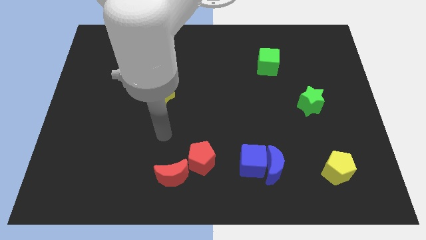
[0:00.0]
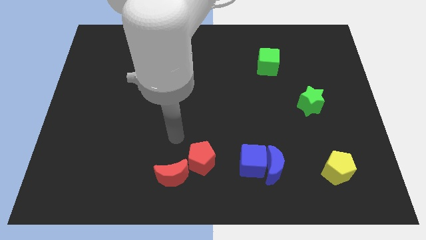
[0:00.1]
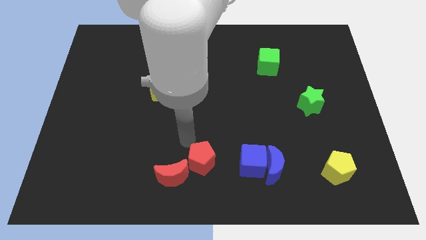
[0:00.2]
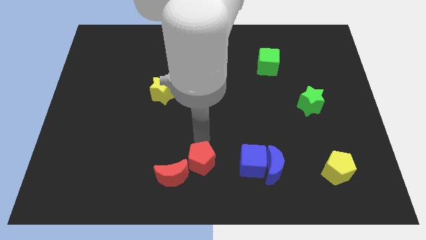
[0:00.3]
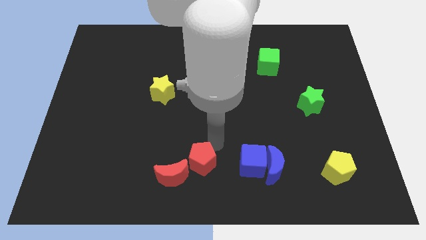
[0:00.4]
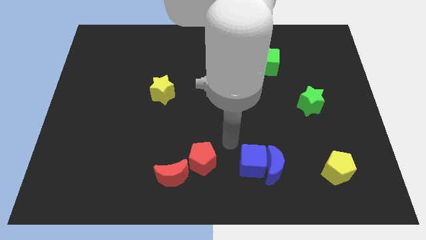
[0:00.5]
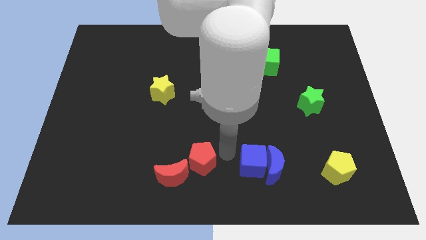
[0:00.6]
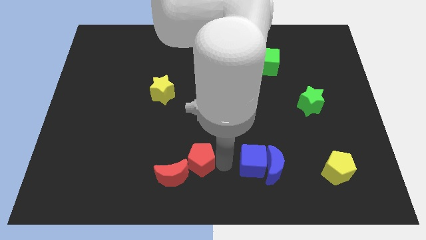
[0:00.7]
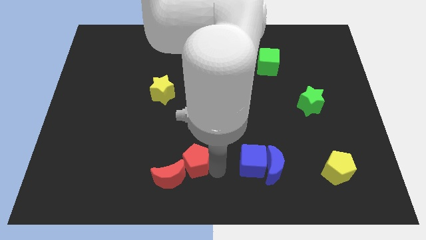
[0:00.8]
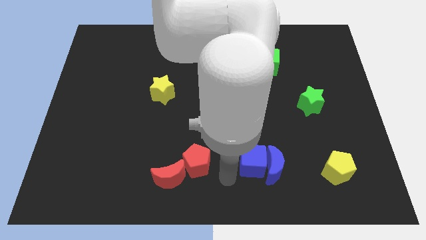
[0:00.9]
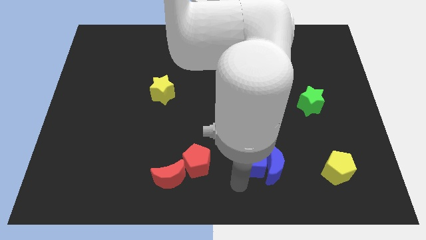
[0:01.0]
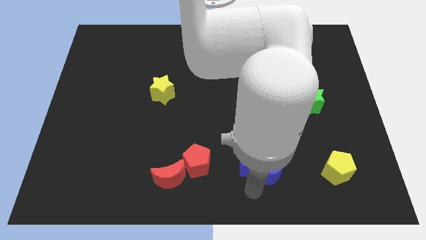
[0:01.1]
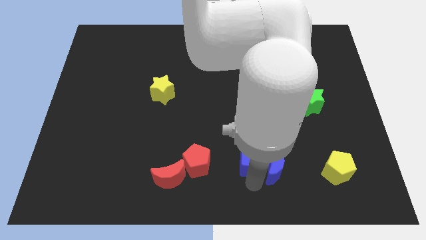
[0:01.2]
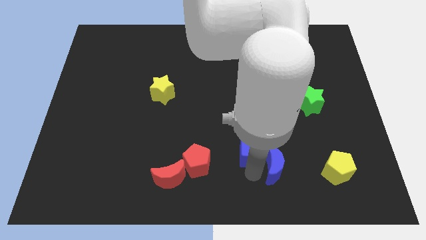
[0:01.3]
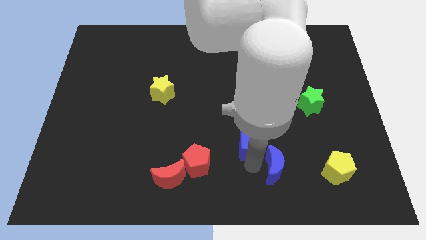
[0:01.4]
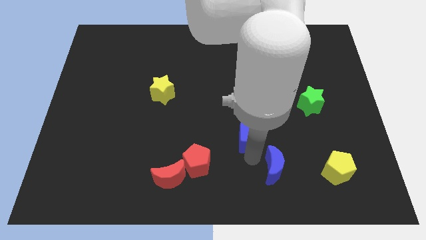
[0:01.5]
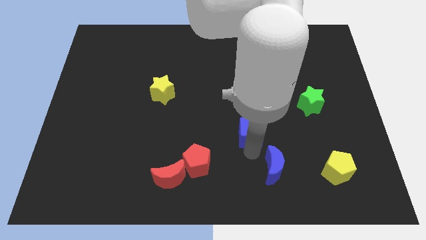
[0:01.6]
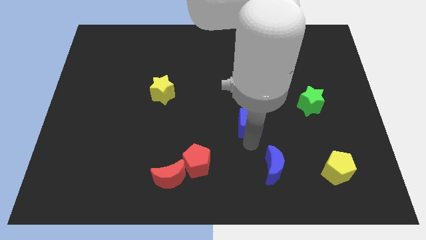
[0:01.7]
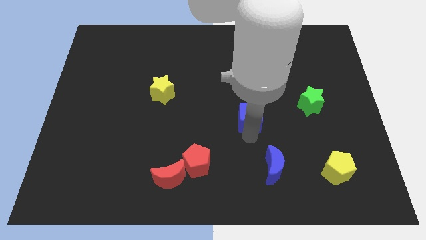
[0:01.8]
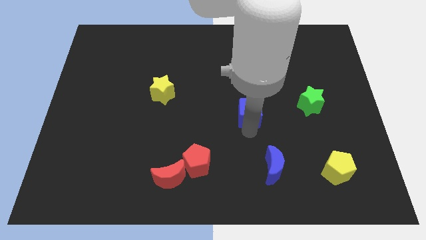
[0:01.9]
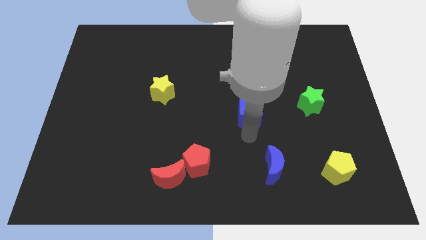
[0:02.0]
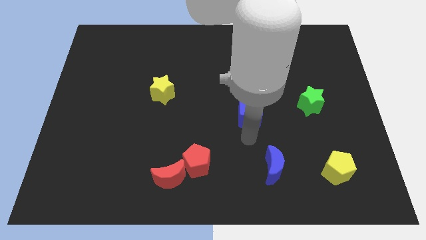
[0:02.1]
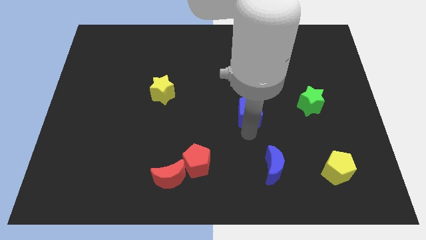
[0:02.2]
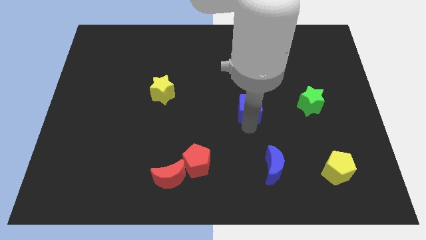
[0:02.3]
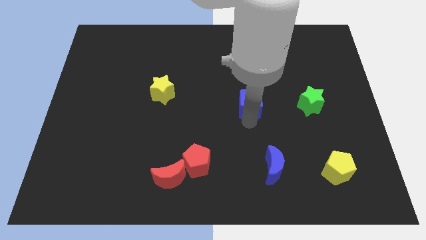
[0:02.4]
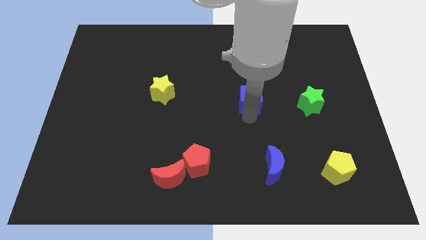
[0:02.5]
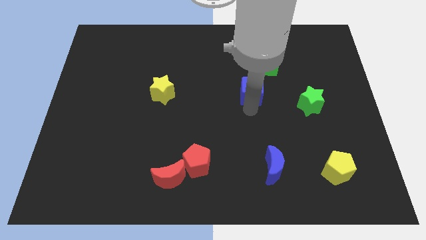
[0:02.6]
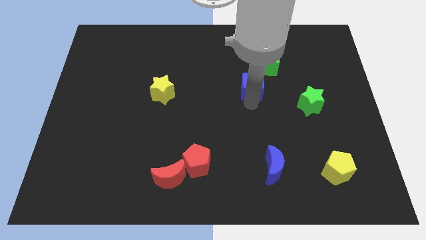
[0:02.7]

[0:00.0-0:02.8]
move the blue cube up

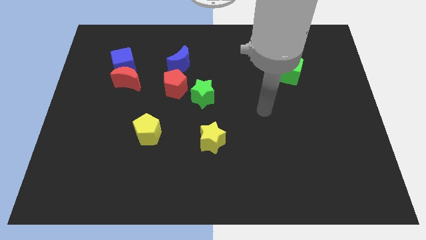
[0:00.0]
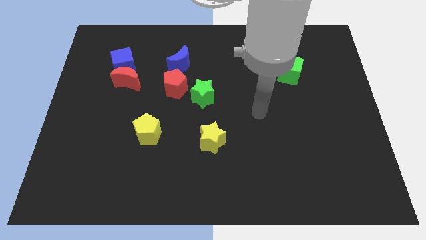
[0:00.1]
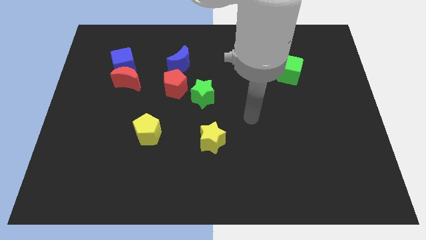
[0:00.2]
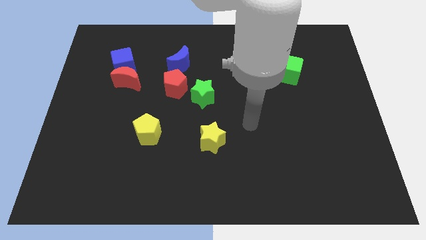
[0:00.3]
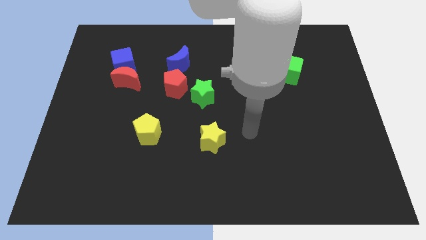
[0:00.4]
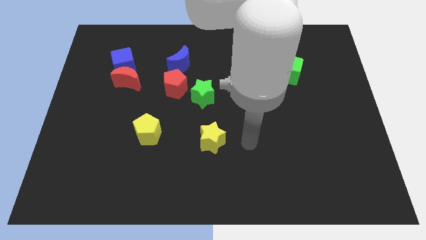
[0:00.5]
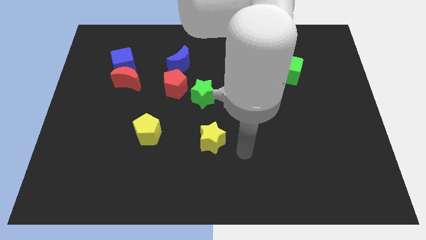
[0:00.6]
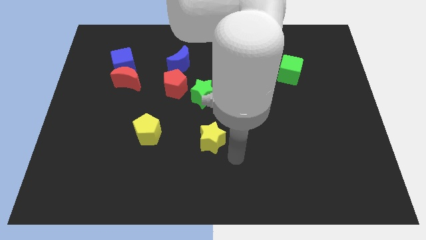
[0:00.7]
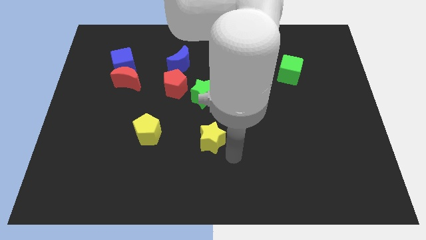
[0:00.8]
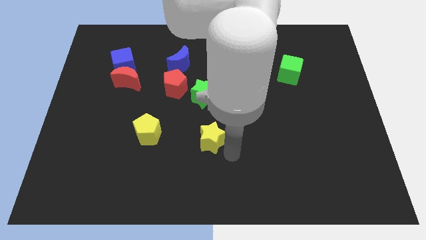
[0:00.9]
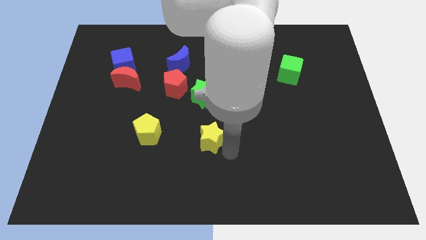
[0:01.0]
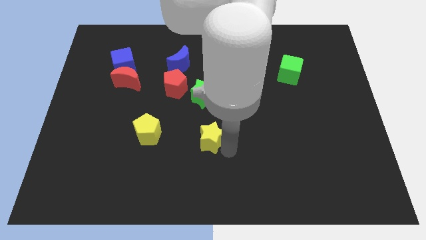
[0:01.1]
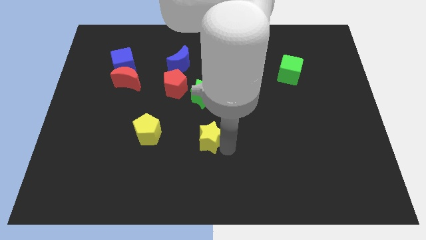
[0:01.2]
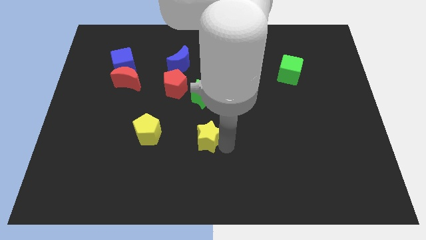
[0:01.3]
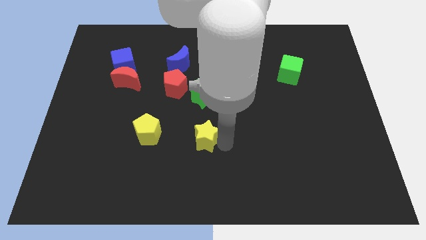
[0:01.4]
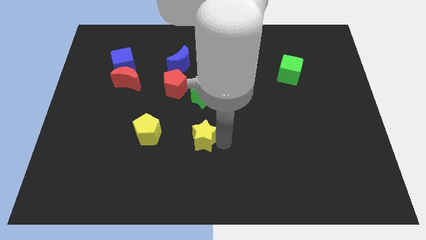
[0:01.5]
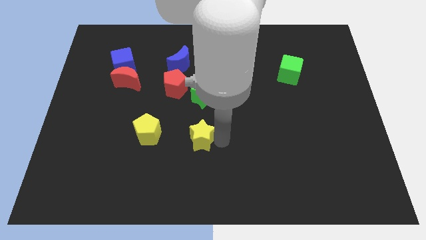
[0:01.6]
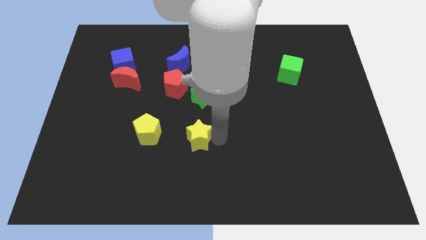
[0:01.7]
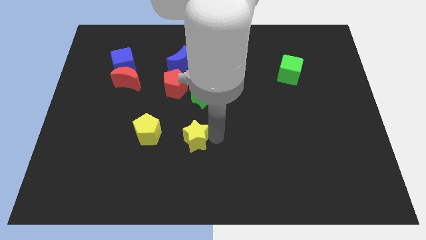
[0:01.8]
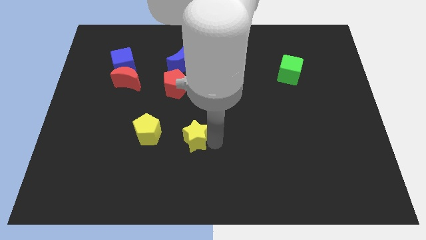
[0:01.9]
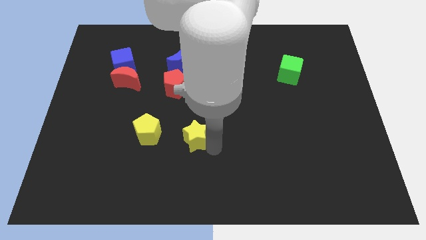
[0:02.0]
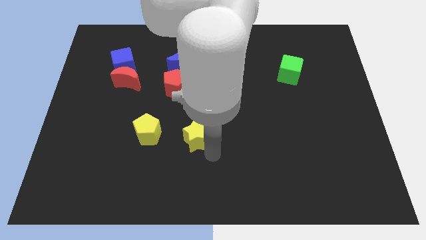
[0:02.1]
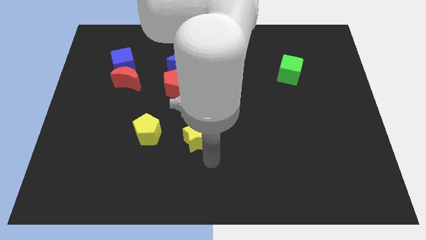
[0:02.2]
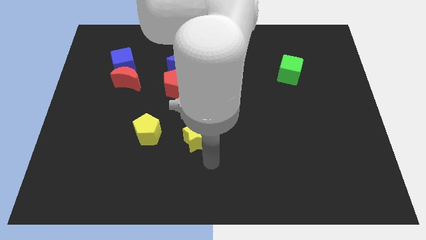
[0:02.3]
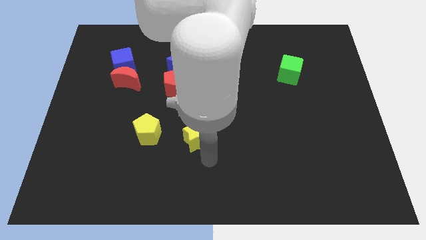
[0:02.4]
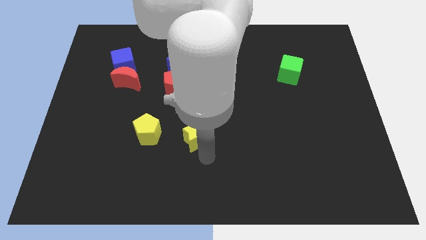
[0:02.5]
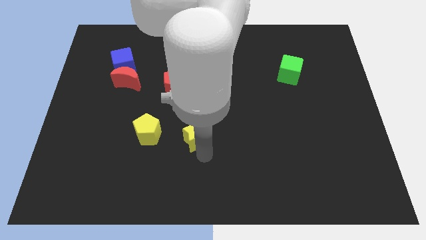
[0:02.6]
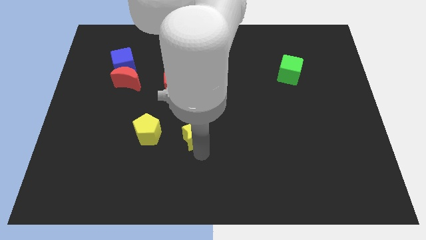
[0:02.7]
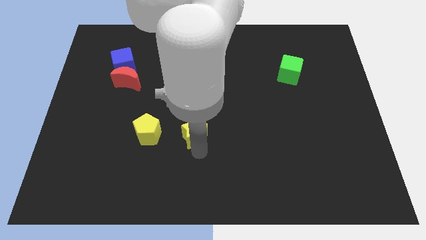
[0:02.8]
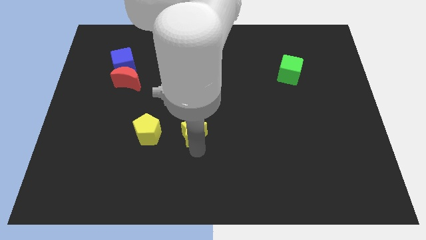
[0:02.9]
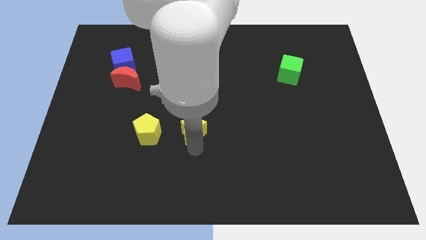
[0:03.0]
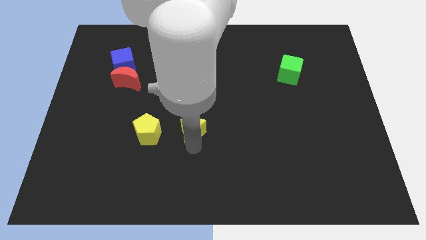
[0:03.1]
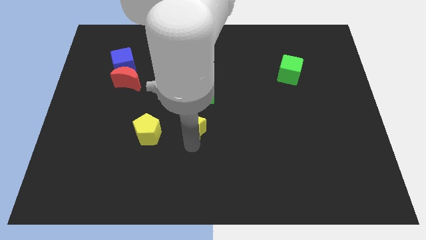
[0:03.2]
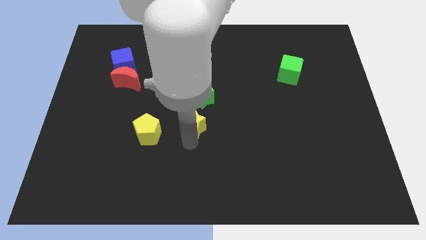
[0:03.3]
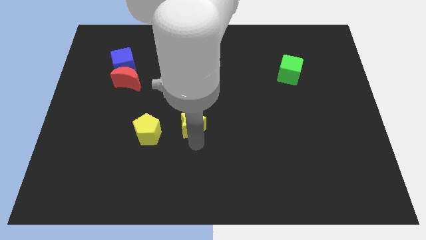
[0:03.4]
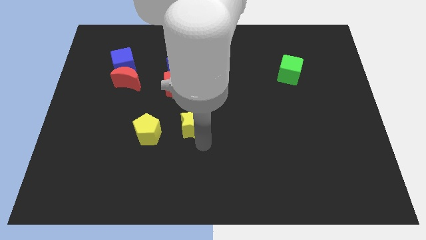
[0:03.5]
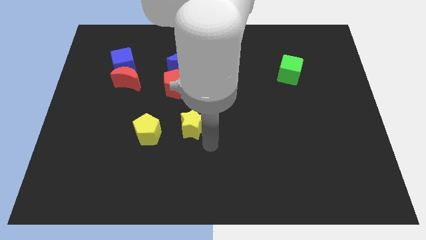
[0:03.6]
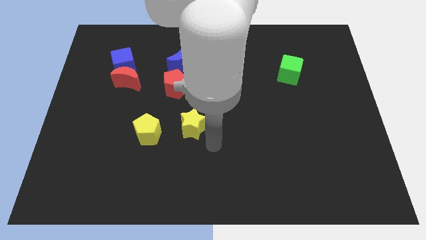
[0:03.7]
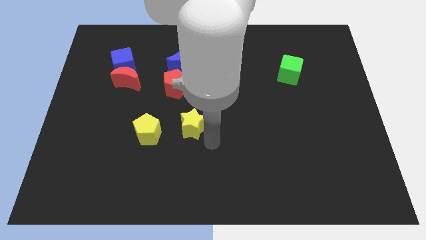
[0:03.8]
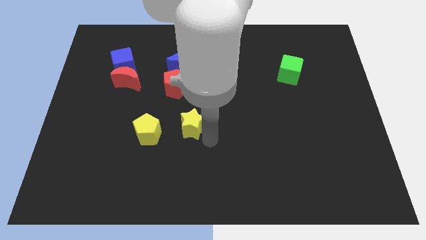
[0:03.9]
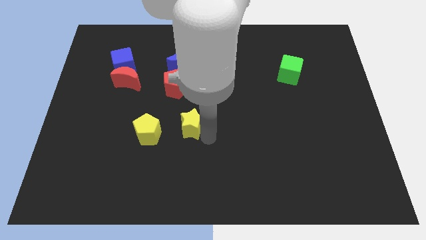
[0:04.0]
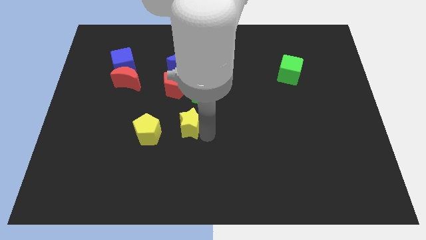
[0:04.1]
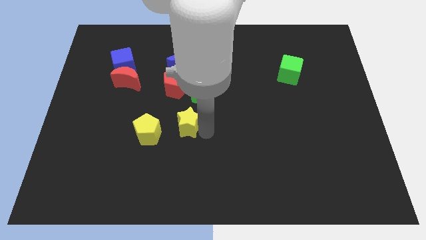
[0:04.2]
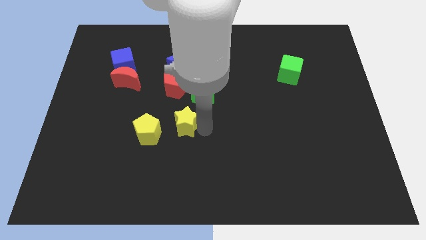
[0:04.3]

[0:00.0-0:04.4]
slightly push the yellow star diagonally upwards and to the left

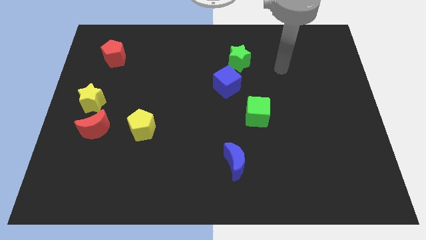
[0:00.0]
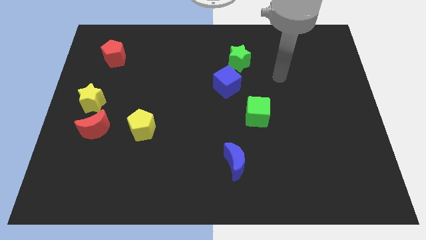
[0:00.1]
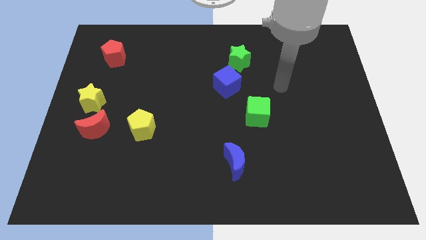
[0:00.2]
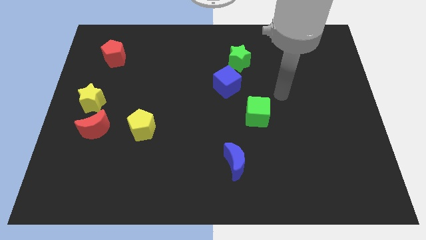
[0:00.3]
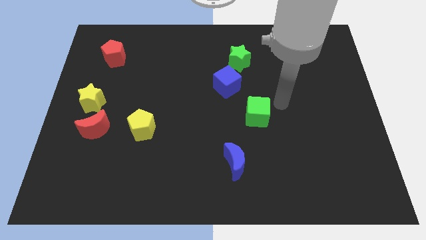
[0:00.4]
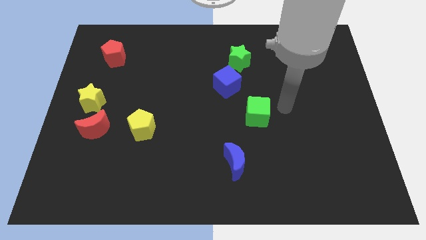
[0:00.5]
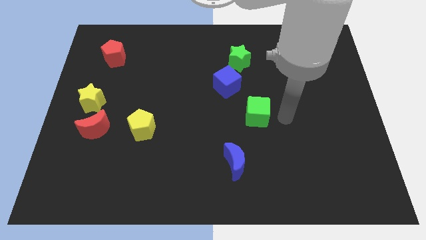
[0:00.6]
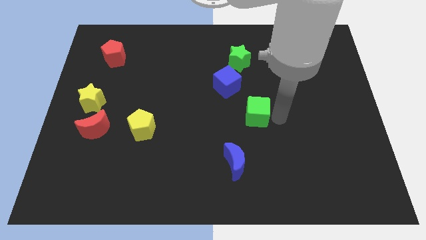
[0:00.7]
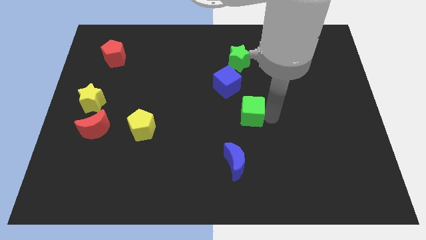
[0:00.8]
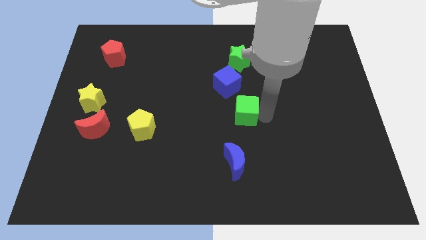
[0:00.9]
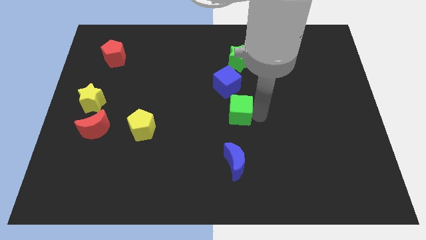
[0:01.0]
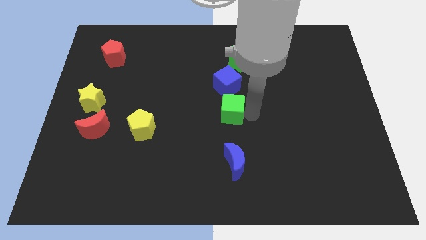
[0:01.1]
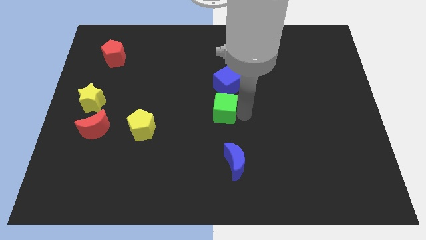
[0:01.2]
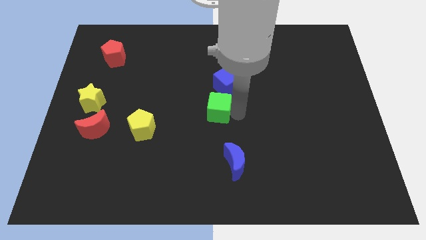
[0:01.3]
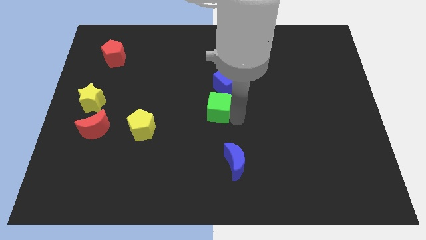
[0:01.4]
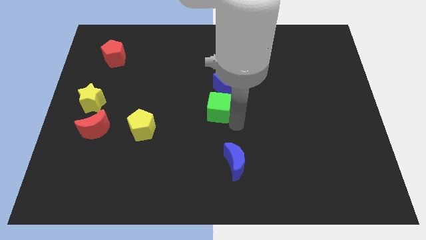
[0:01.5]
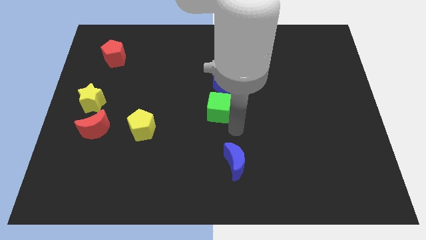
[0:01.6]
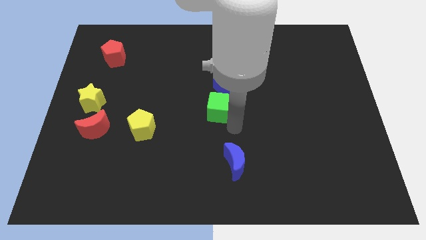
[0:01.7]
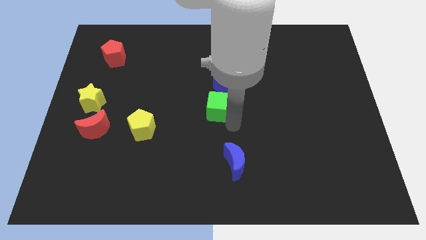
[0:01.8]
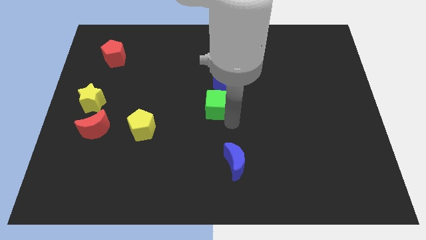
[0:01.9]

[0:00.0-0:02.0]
move the green cube up and to the left slightly
